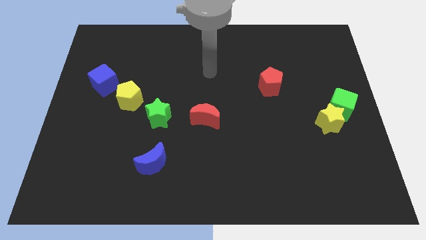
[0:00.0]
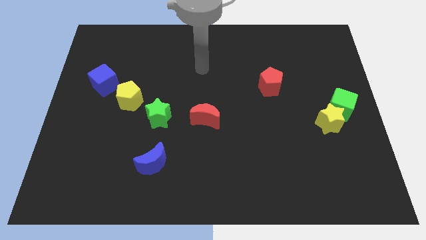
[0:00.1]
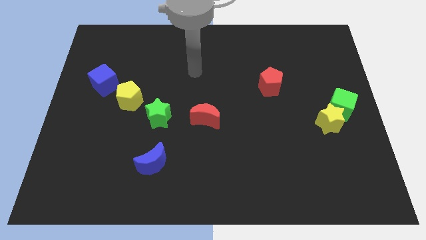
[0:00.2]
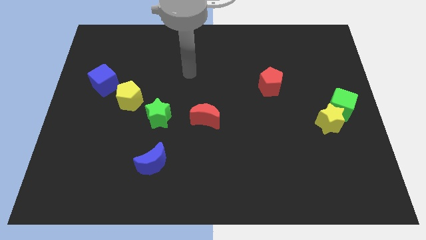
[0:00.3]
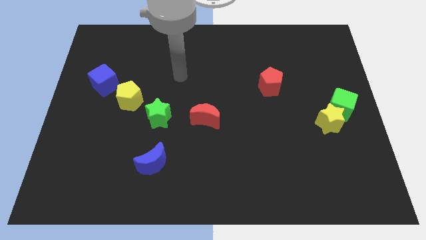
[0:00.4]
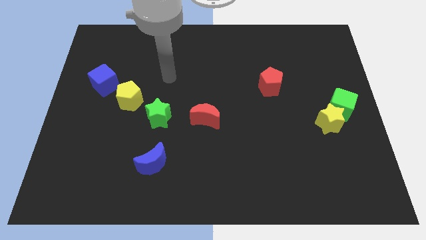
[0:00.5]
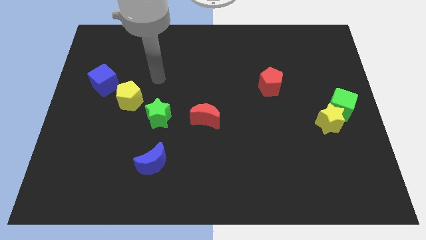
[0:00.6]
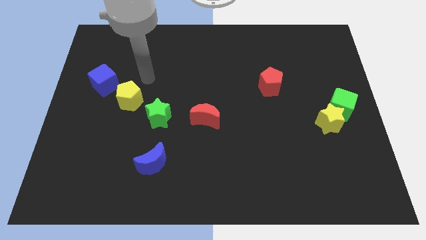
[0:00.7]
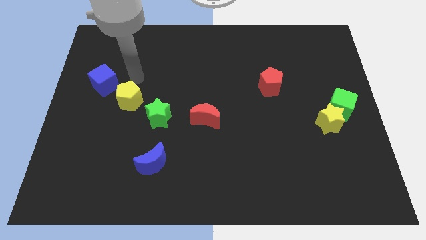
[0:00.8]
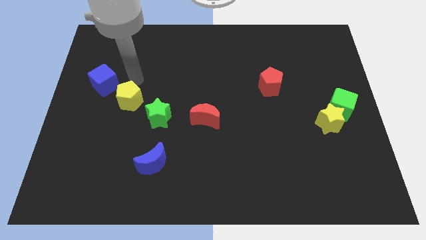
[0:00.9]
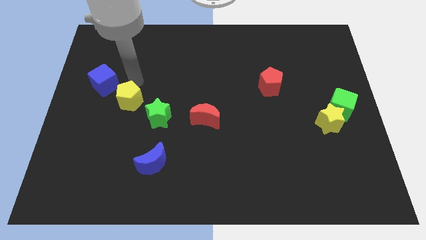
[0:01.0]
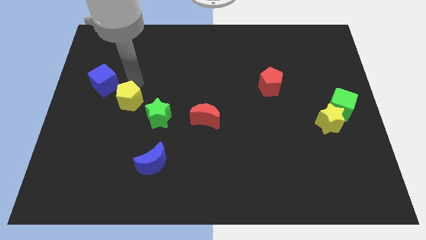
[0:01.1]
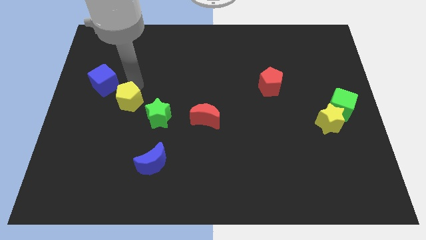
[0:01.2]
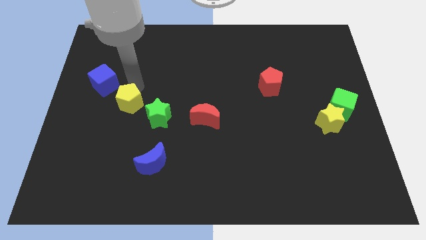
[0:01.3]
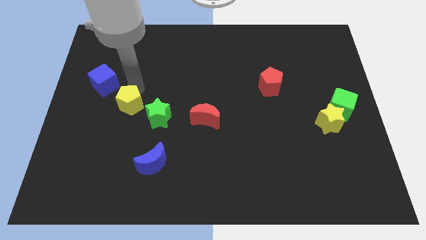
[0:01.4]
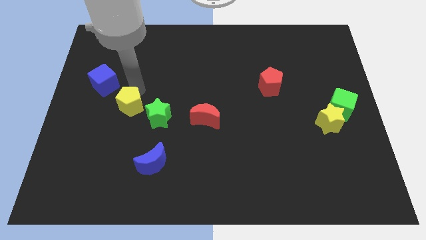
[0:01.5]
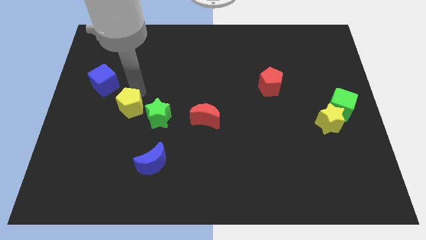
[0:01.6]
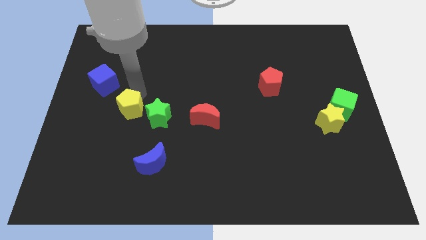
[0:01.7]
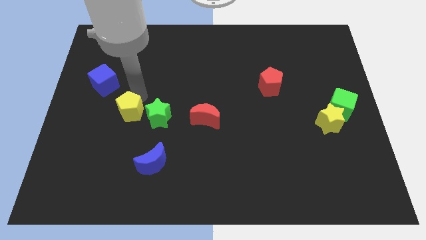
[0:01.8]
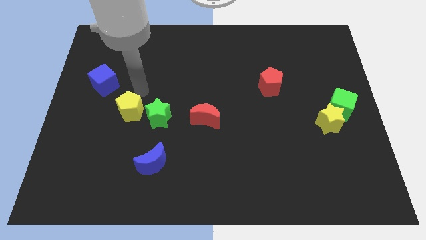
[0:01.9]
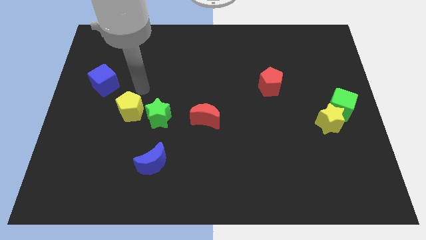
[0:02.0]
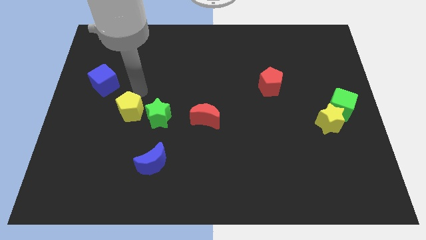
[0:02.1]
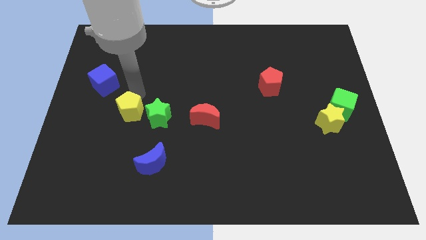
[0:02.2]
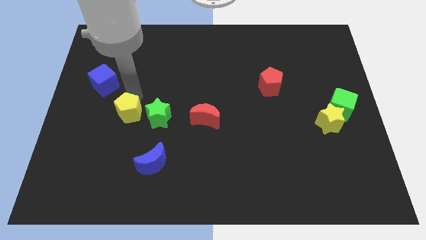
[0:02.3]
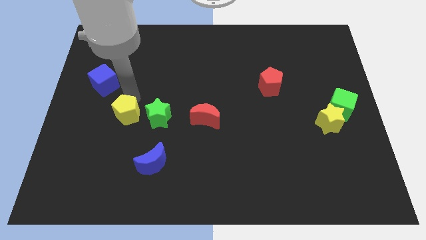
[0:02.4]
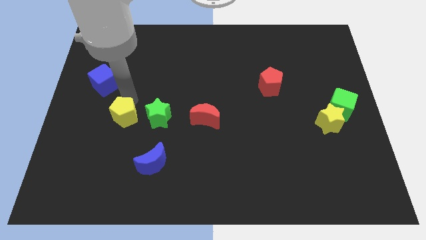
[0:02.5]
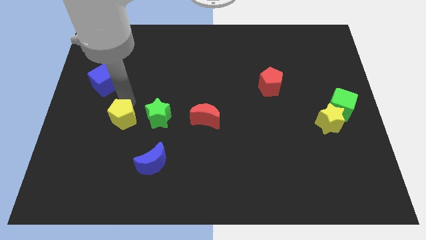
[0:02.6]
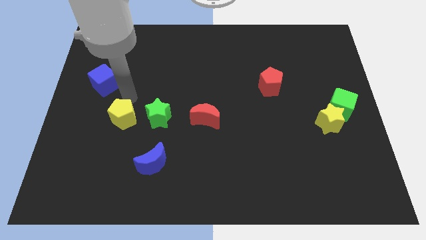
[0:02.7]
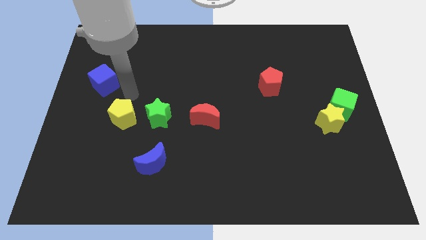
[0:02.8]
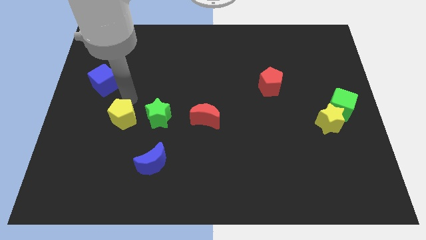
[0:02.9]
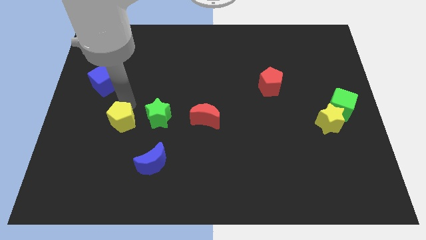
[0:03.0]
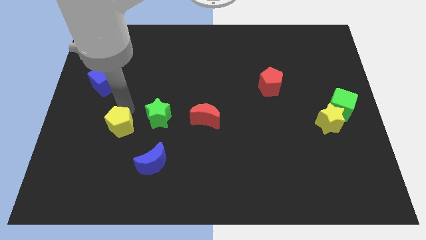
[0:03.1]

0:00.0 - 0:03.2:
slightly slide the yellow pentagon downwards

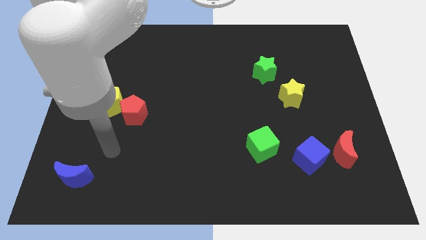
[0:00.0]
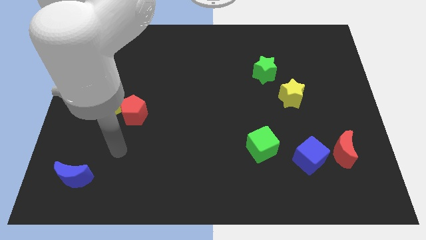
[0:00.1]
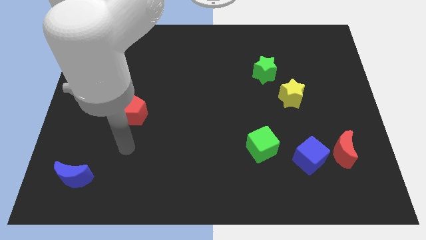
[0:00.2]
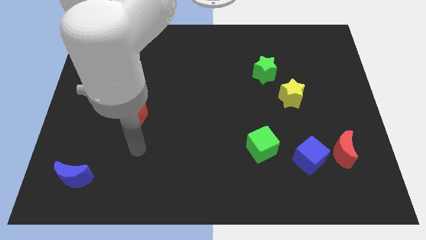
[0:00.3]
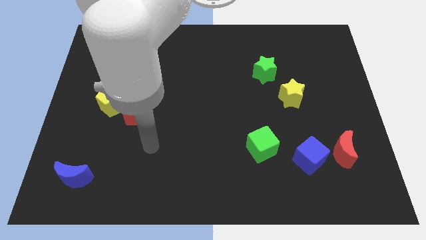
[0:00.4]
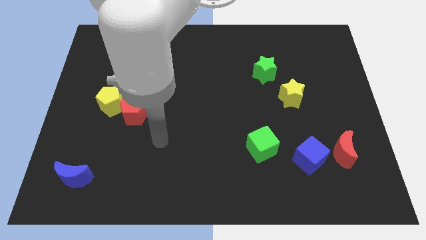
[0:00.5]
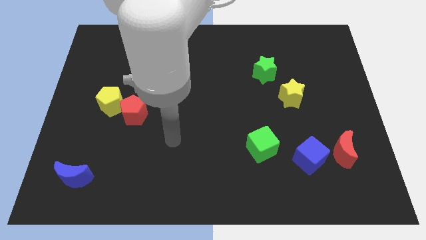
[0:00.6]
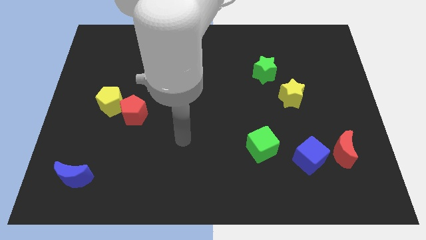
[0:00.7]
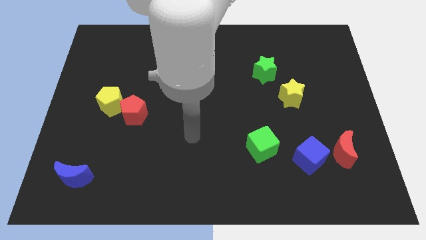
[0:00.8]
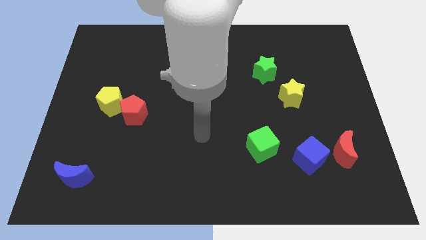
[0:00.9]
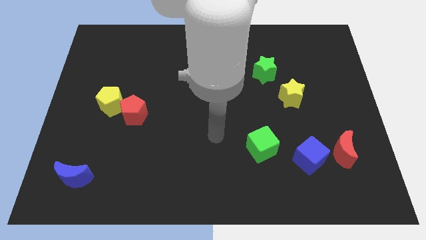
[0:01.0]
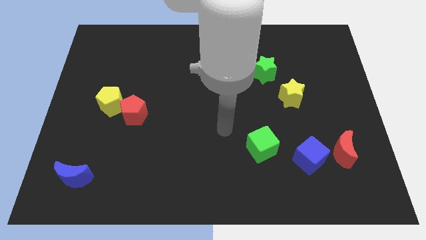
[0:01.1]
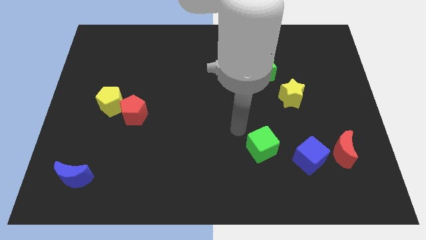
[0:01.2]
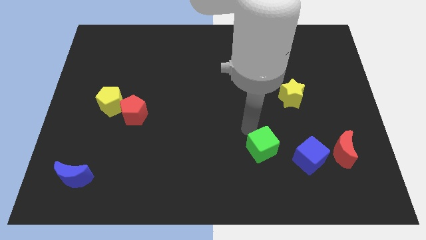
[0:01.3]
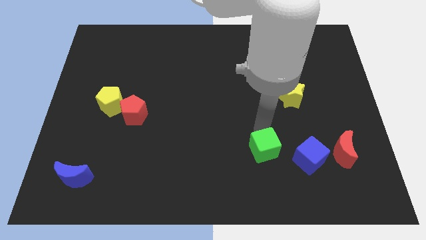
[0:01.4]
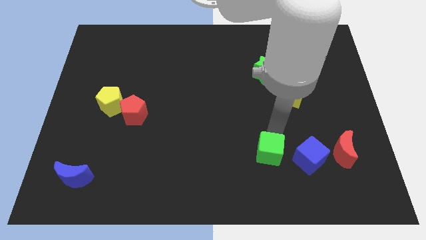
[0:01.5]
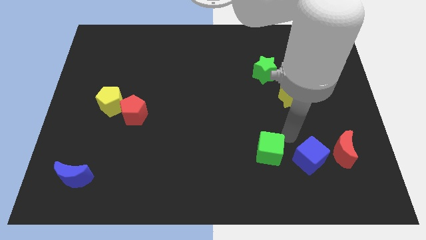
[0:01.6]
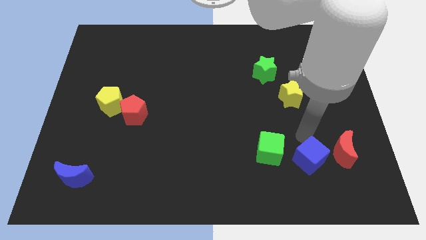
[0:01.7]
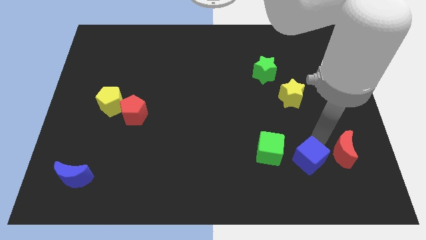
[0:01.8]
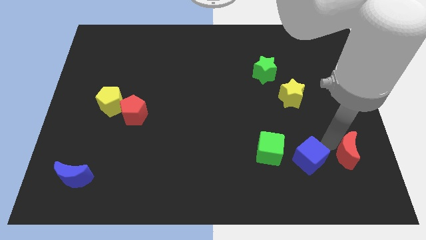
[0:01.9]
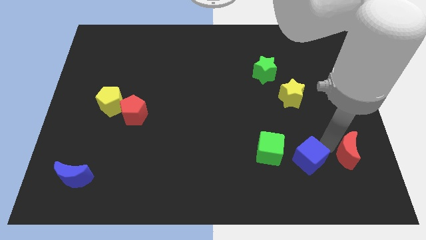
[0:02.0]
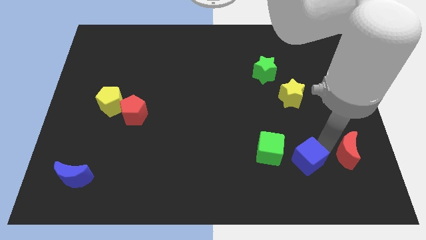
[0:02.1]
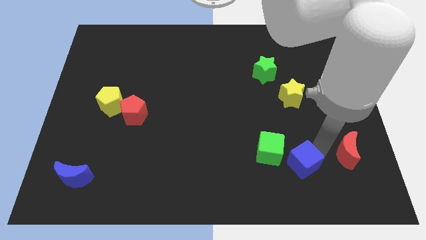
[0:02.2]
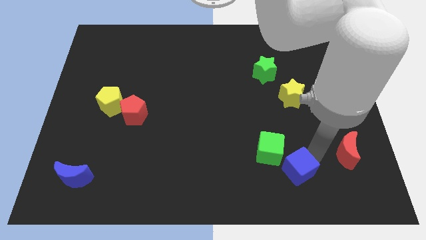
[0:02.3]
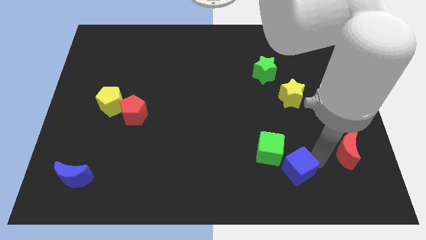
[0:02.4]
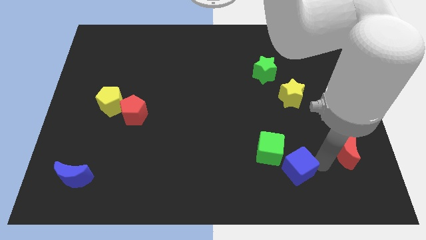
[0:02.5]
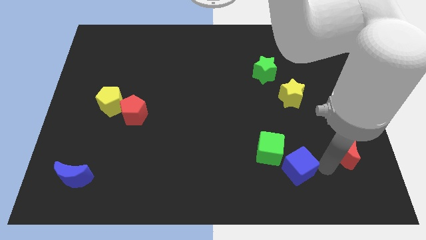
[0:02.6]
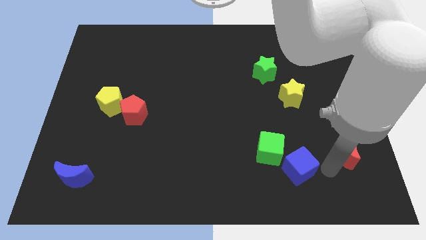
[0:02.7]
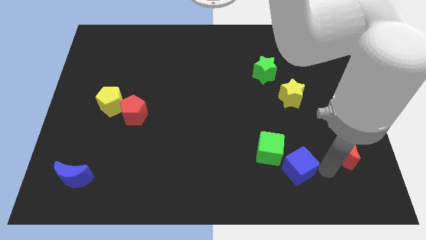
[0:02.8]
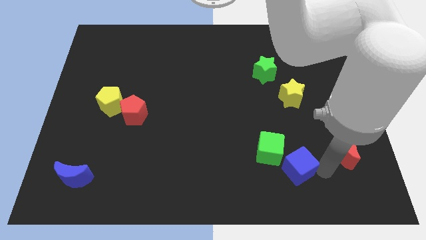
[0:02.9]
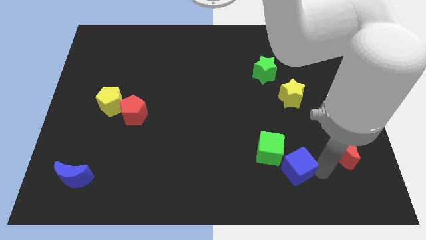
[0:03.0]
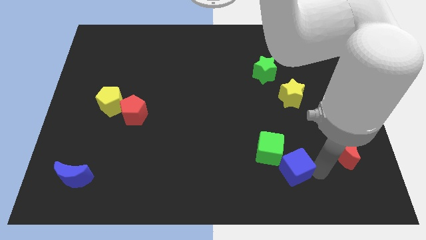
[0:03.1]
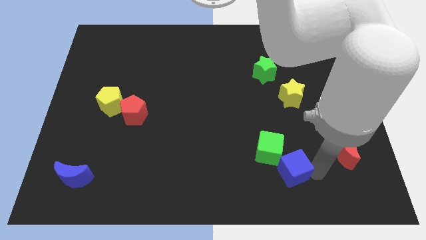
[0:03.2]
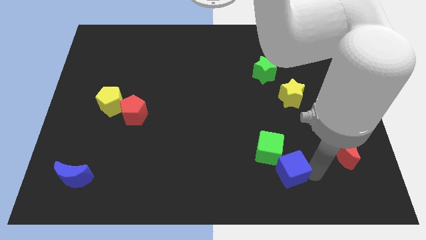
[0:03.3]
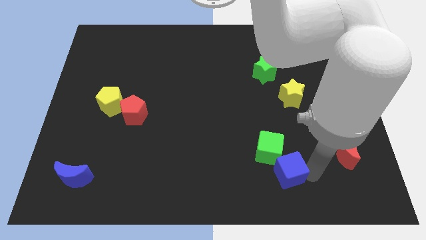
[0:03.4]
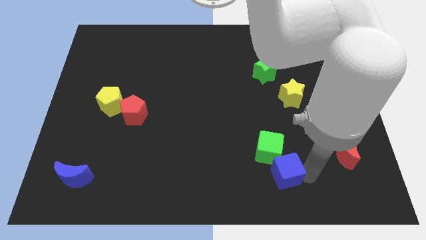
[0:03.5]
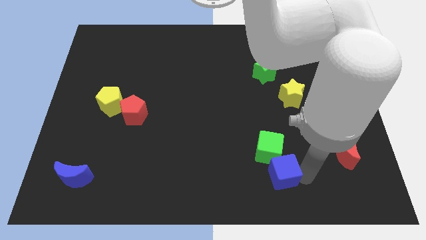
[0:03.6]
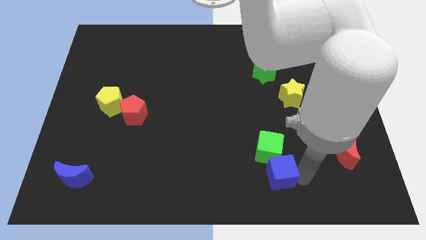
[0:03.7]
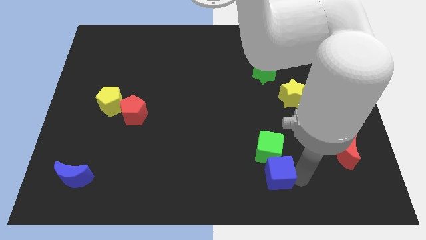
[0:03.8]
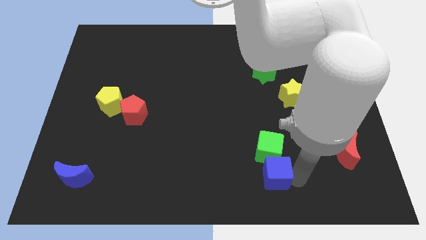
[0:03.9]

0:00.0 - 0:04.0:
push the blue cube left a little

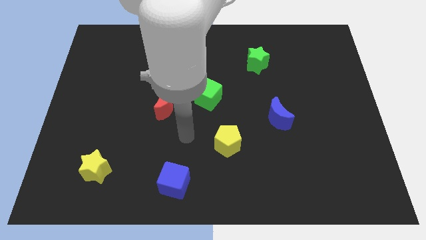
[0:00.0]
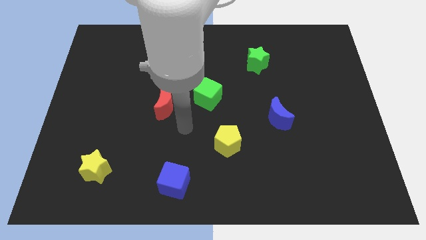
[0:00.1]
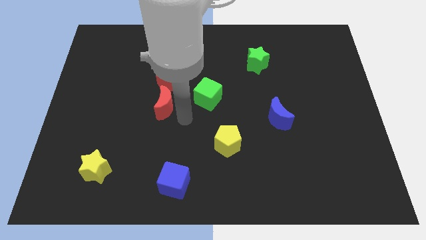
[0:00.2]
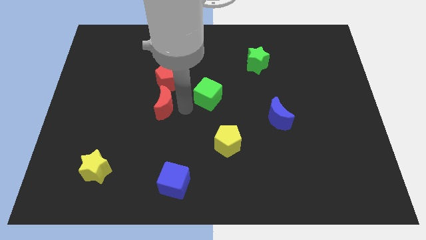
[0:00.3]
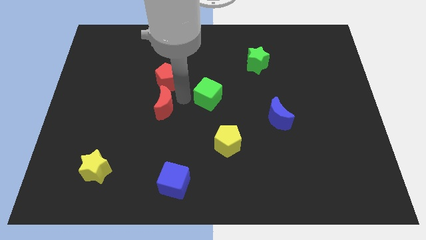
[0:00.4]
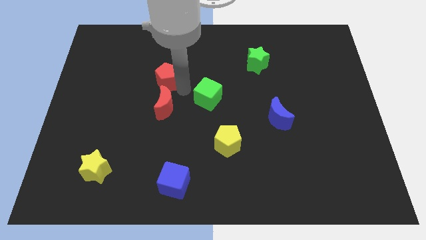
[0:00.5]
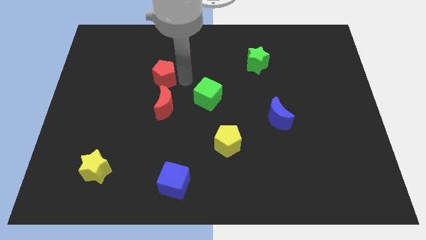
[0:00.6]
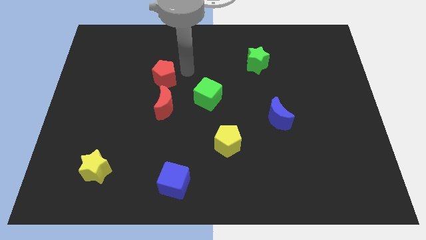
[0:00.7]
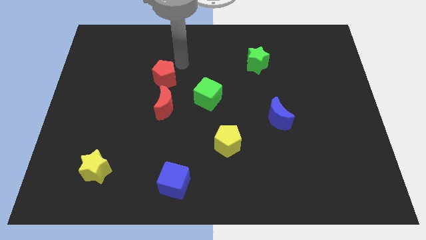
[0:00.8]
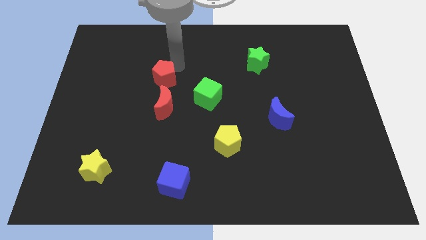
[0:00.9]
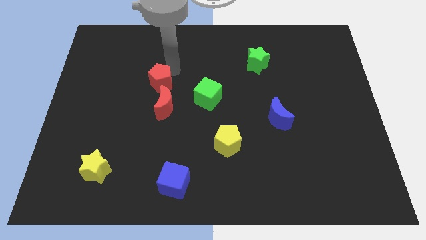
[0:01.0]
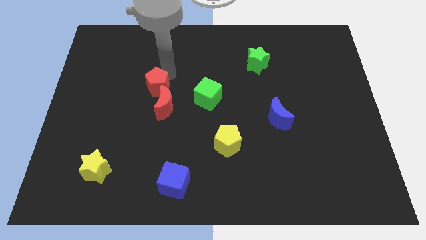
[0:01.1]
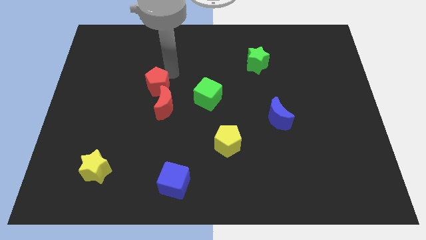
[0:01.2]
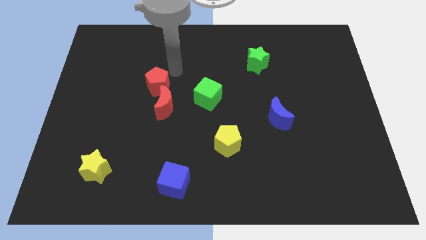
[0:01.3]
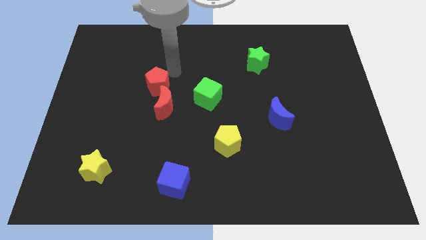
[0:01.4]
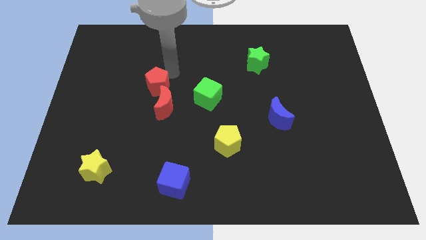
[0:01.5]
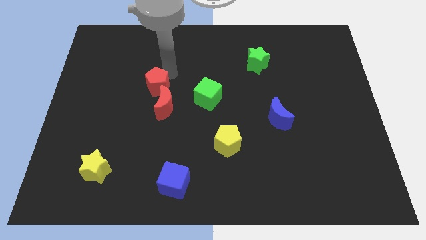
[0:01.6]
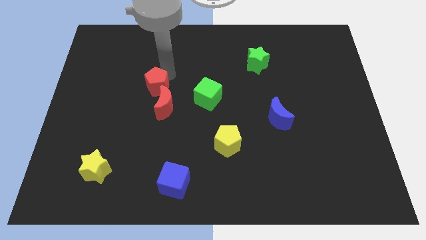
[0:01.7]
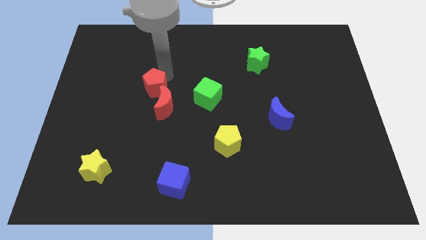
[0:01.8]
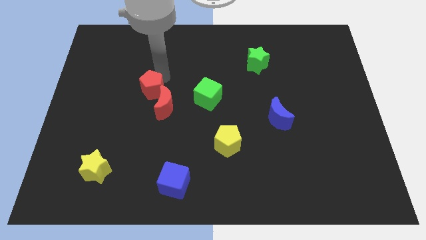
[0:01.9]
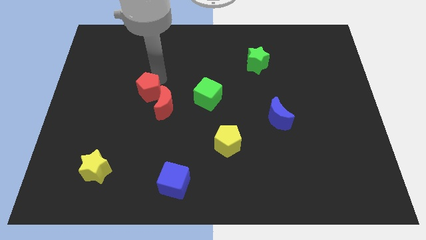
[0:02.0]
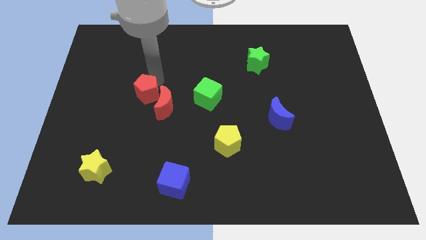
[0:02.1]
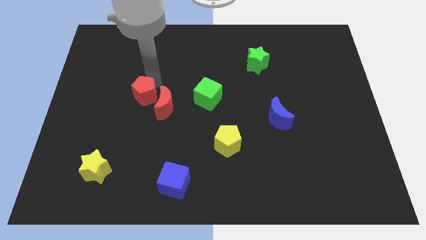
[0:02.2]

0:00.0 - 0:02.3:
push the red pentagon slightly diagonally down and to the left
